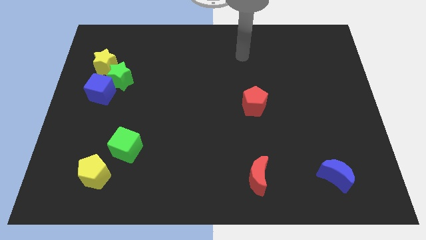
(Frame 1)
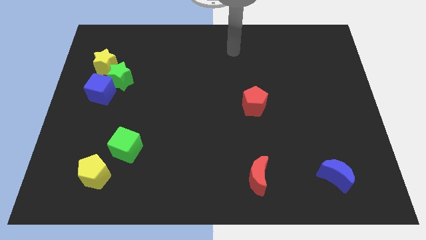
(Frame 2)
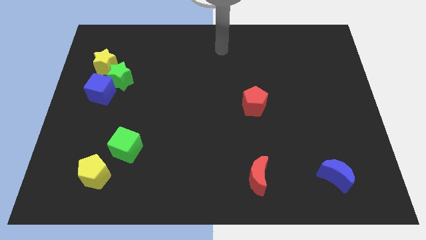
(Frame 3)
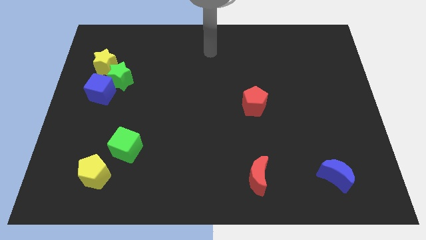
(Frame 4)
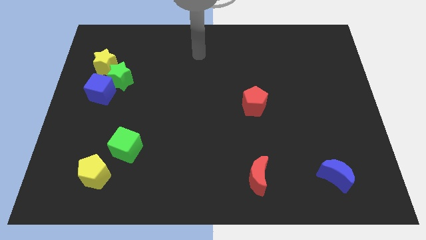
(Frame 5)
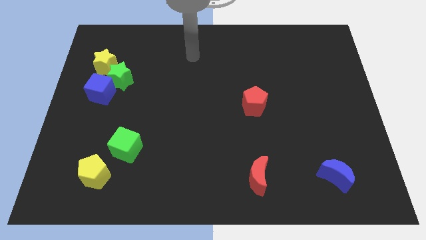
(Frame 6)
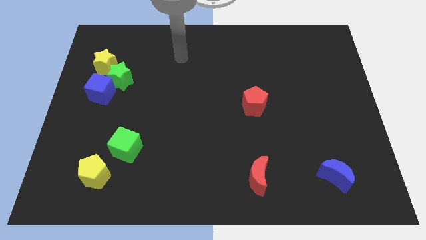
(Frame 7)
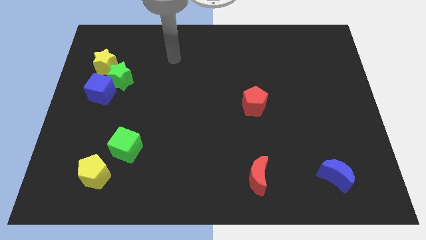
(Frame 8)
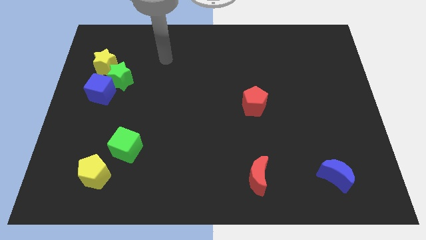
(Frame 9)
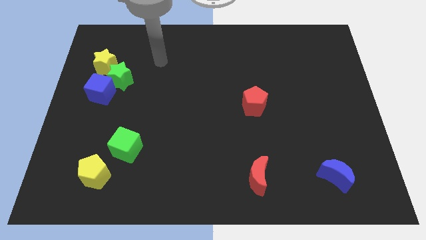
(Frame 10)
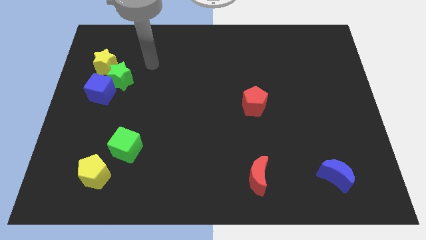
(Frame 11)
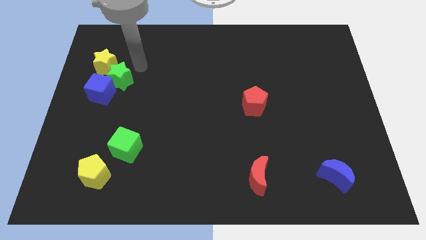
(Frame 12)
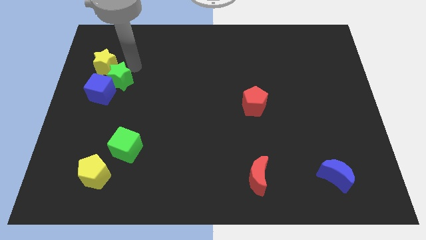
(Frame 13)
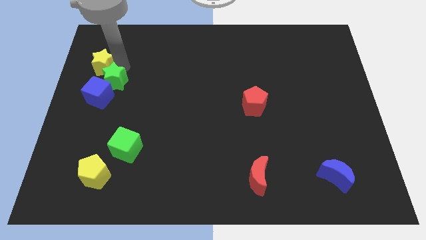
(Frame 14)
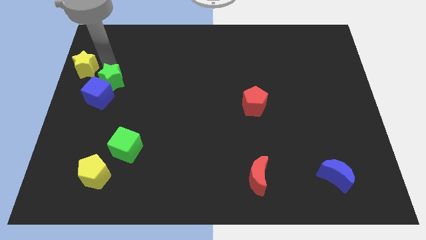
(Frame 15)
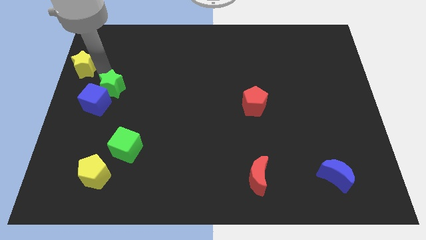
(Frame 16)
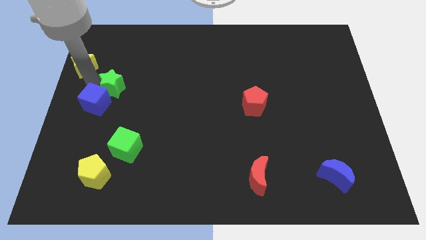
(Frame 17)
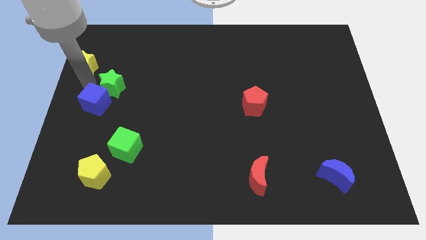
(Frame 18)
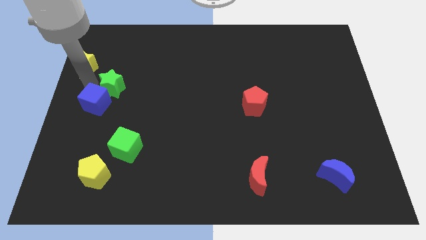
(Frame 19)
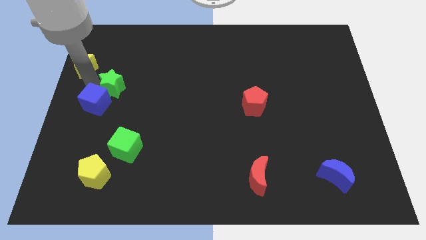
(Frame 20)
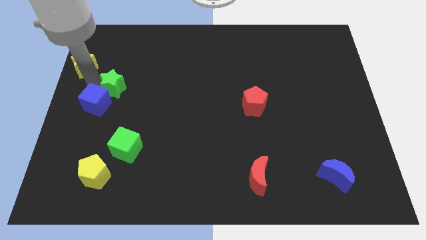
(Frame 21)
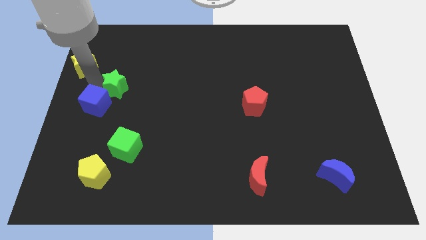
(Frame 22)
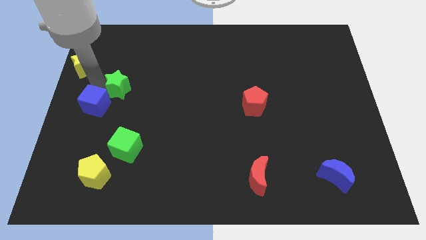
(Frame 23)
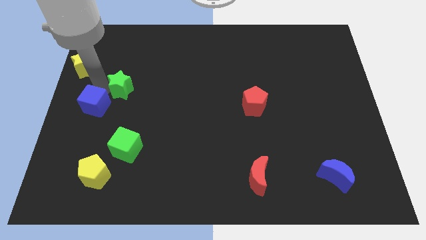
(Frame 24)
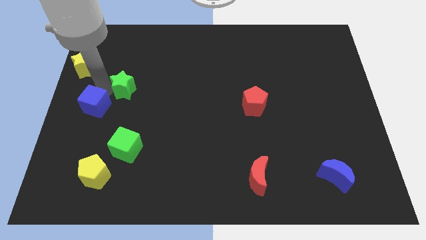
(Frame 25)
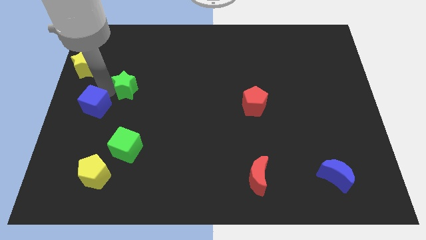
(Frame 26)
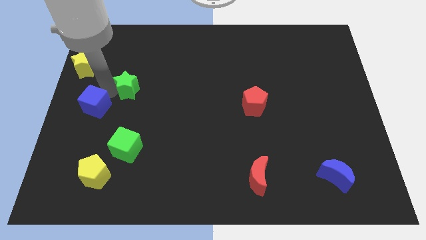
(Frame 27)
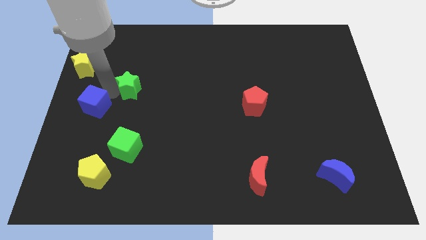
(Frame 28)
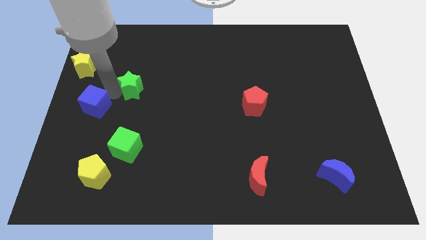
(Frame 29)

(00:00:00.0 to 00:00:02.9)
separate the green star from the blue cube and yellow star

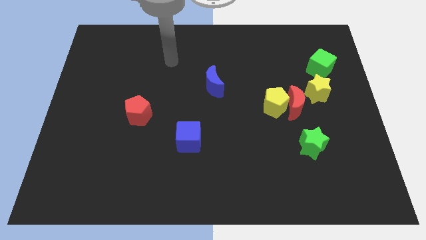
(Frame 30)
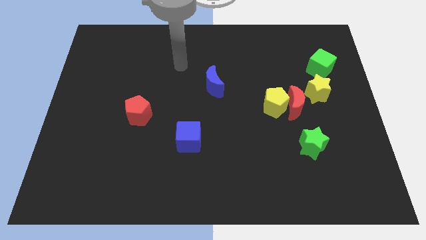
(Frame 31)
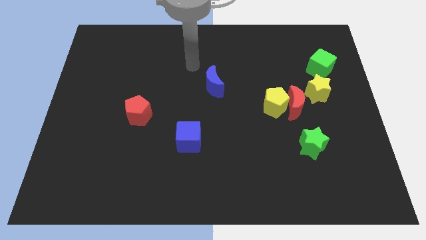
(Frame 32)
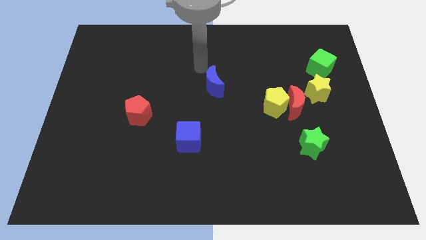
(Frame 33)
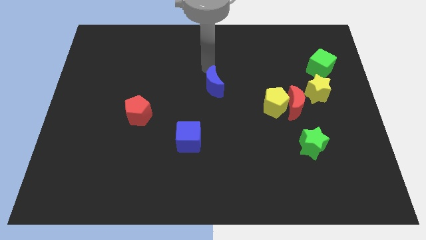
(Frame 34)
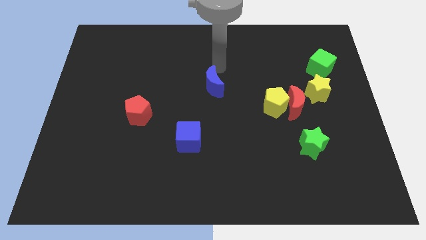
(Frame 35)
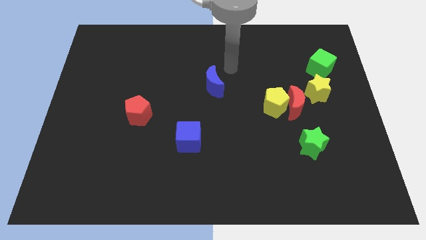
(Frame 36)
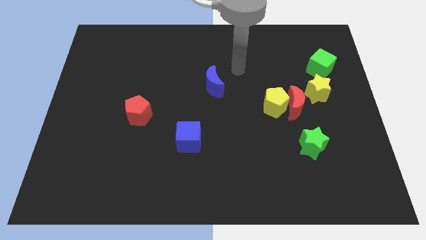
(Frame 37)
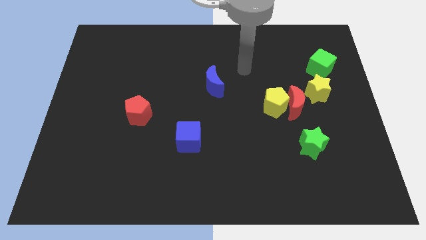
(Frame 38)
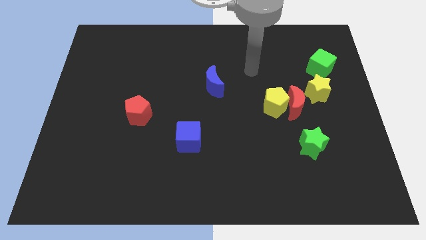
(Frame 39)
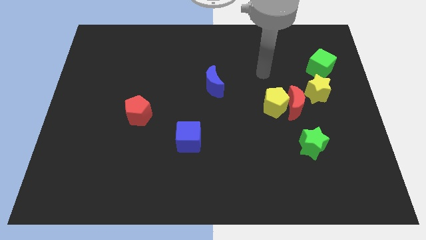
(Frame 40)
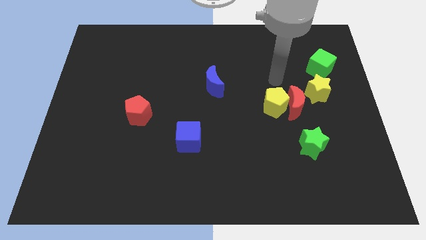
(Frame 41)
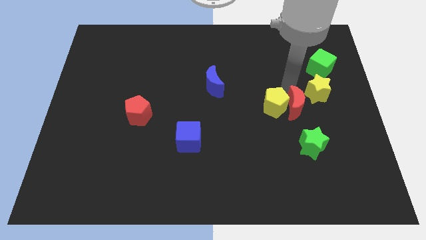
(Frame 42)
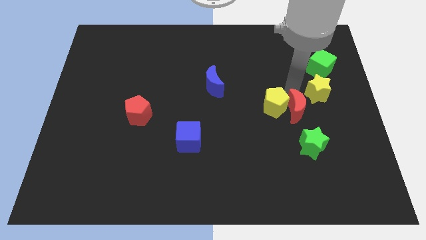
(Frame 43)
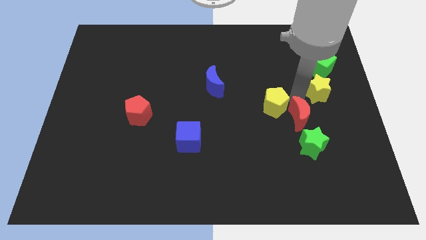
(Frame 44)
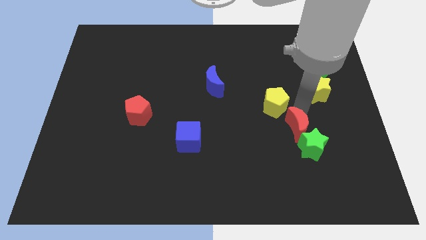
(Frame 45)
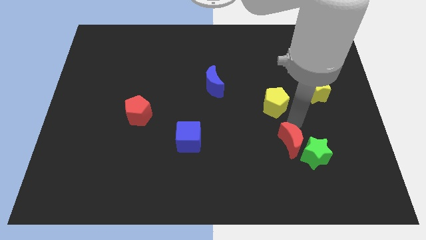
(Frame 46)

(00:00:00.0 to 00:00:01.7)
move the yellow pentagon away from the red moon

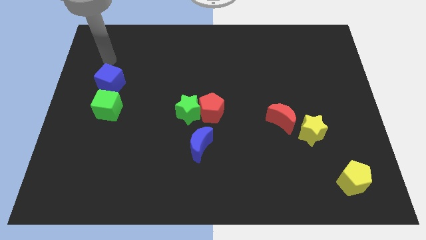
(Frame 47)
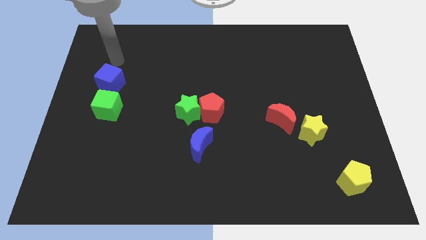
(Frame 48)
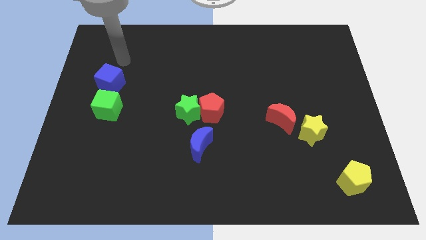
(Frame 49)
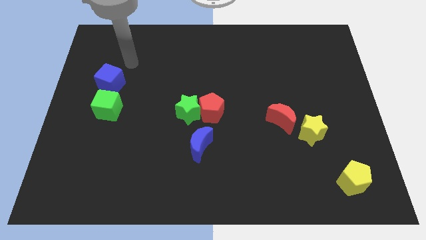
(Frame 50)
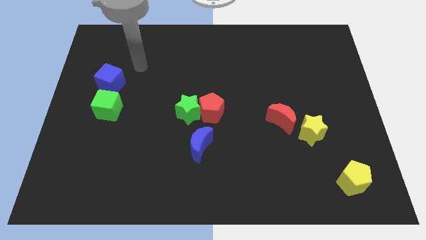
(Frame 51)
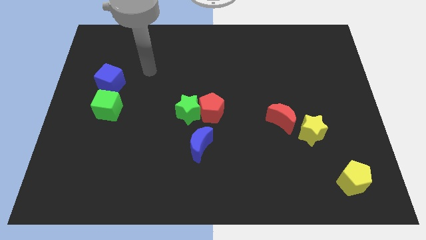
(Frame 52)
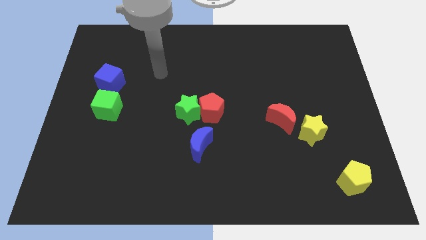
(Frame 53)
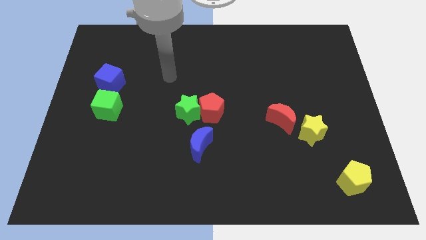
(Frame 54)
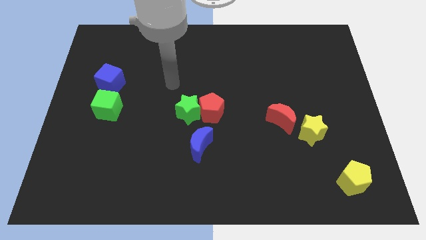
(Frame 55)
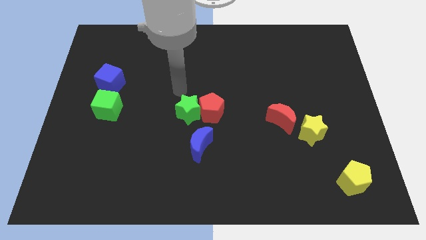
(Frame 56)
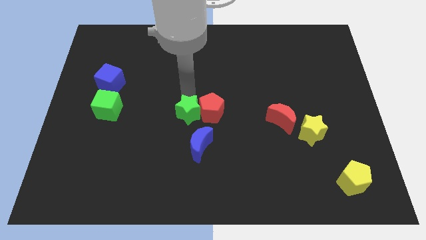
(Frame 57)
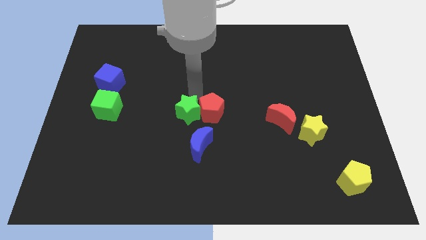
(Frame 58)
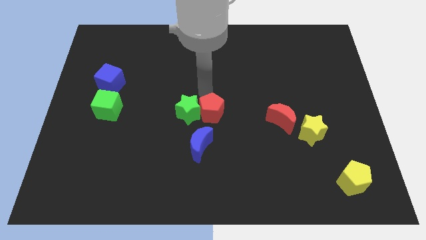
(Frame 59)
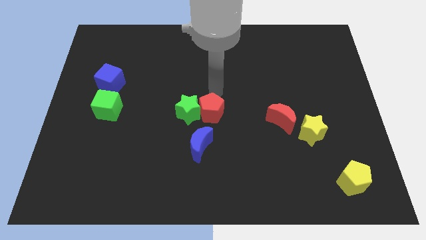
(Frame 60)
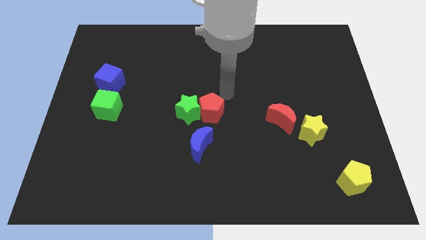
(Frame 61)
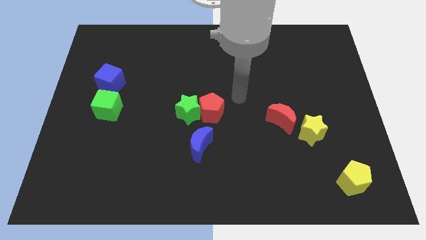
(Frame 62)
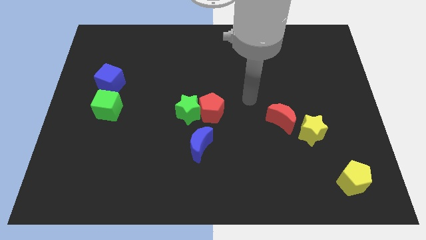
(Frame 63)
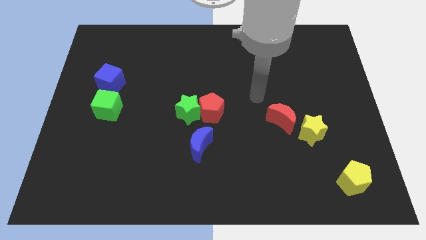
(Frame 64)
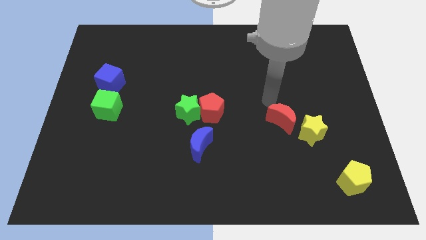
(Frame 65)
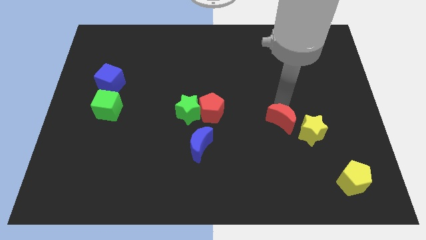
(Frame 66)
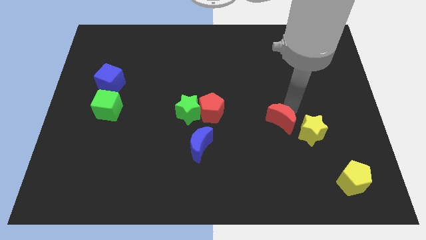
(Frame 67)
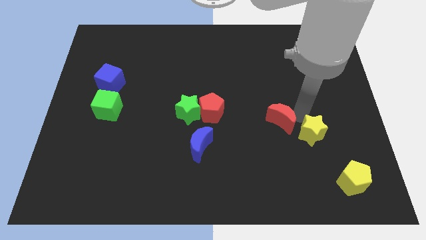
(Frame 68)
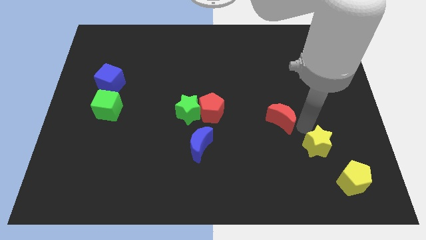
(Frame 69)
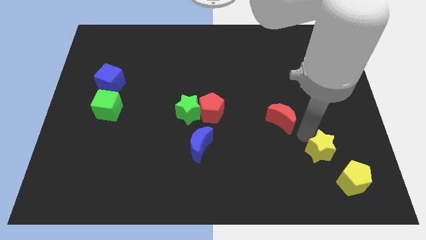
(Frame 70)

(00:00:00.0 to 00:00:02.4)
move the red moon away from the yellow star

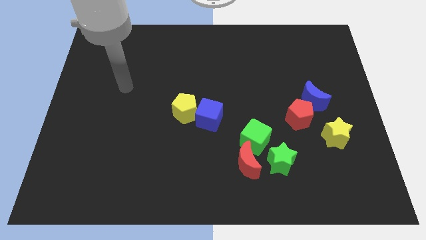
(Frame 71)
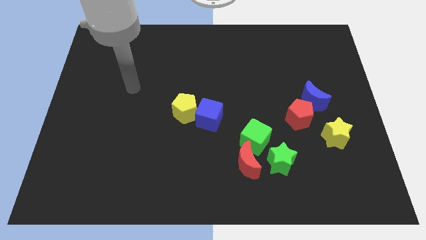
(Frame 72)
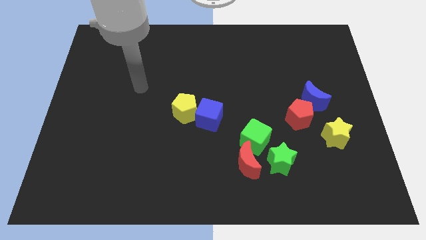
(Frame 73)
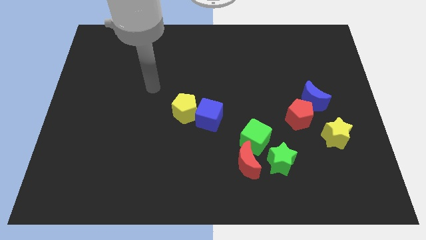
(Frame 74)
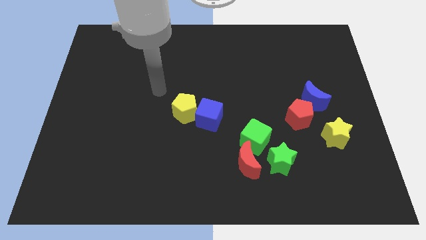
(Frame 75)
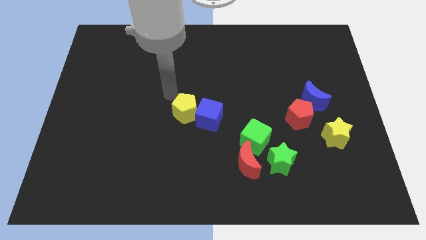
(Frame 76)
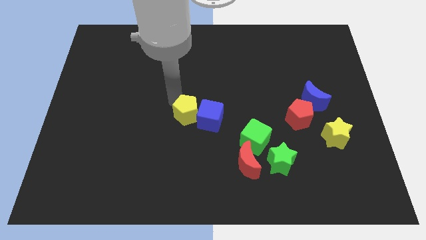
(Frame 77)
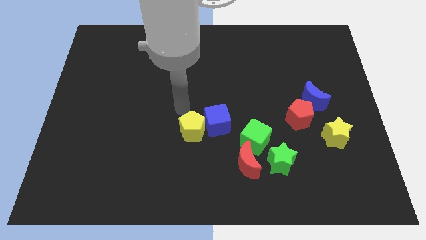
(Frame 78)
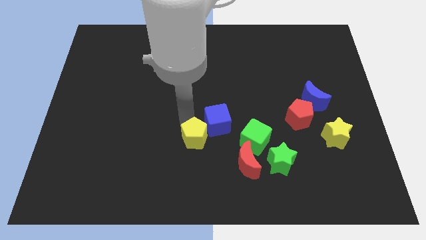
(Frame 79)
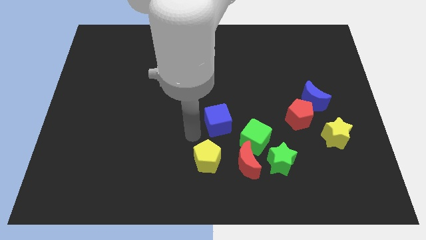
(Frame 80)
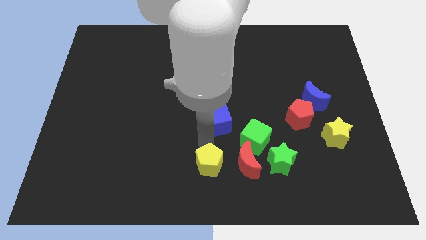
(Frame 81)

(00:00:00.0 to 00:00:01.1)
separate the blue cube from the yellow pentagon

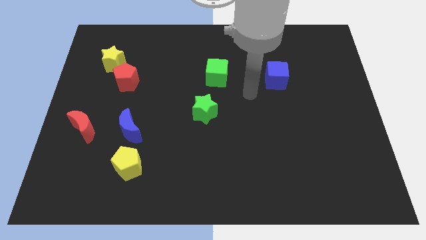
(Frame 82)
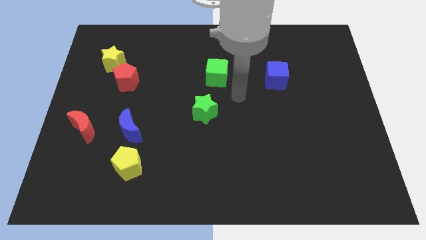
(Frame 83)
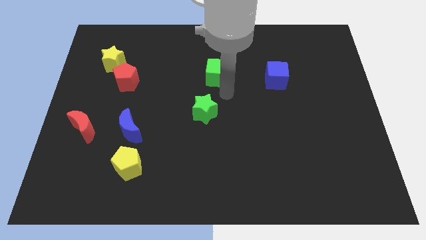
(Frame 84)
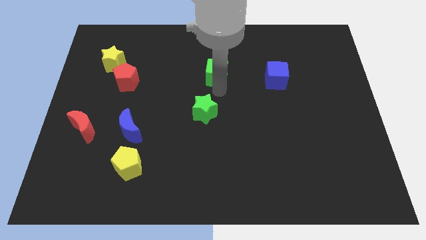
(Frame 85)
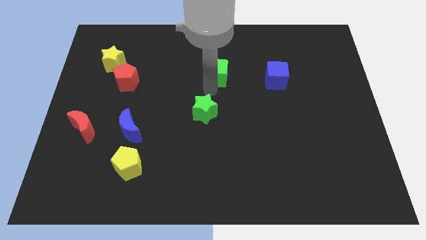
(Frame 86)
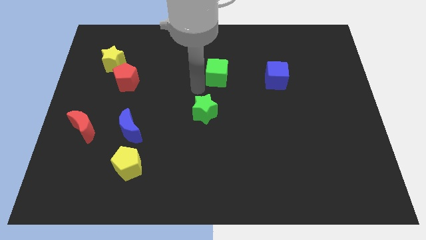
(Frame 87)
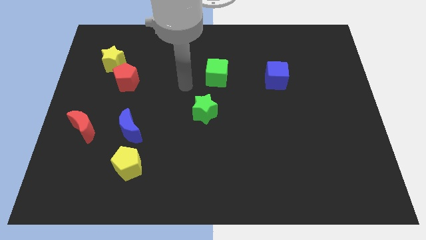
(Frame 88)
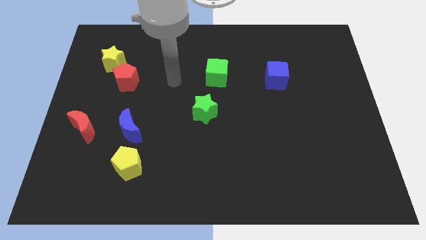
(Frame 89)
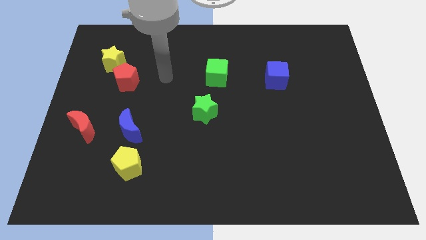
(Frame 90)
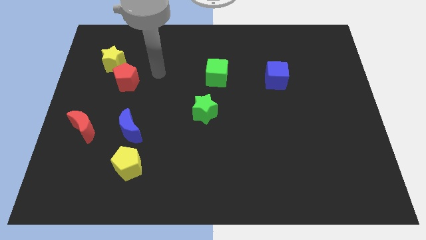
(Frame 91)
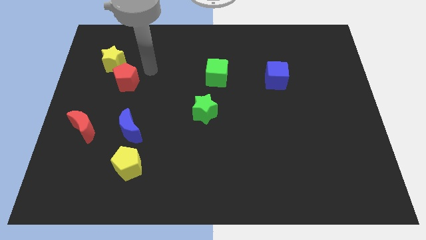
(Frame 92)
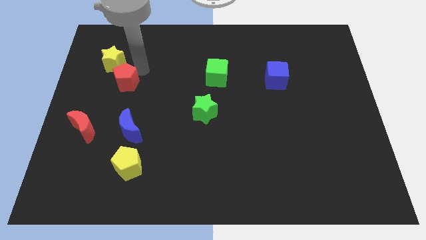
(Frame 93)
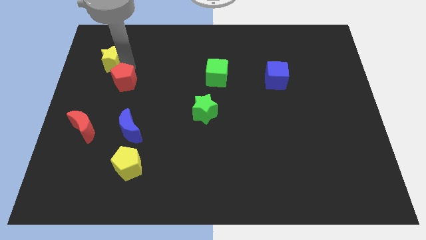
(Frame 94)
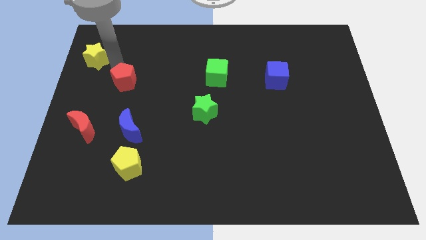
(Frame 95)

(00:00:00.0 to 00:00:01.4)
separate the red pentagon from the yellow star
